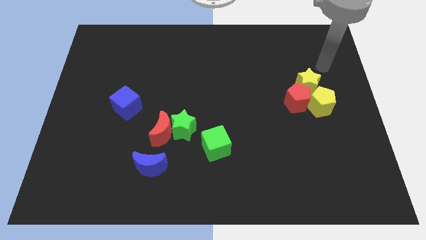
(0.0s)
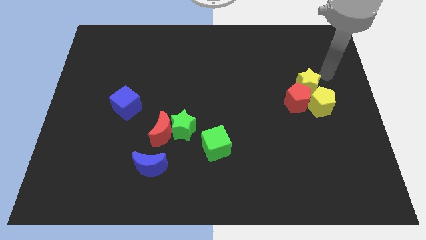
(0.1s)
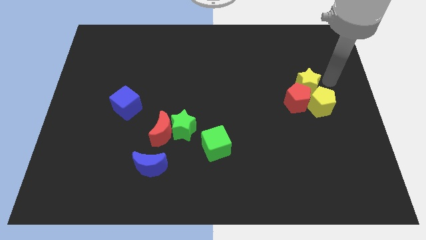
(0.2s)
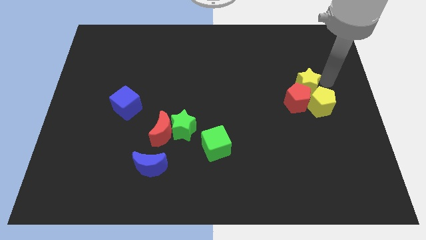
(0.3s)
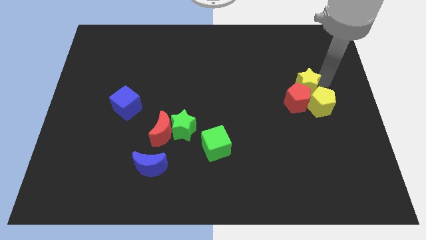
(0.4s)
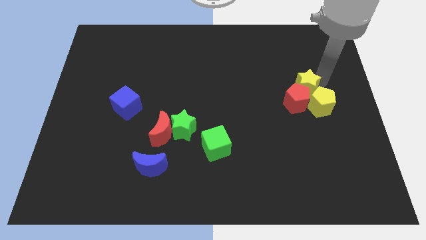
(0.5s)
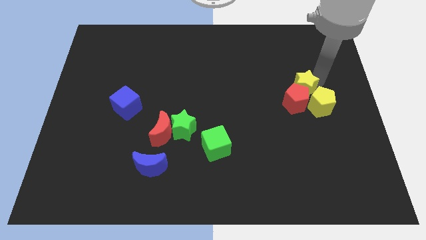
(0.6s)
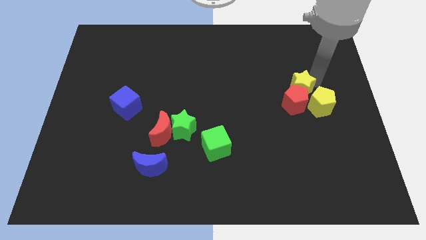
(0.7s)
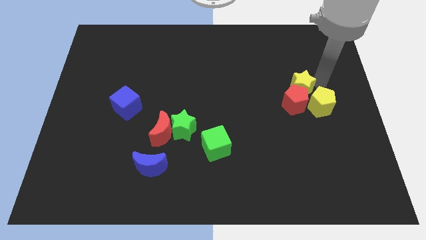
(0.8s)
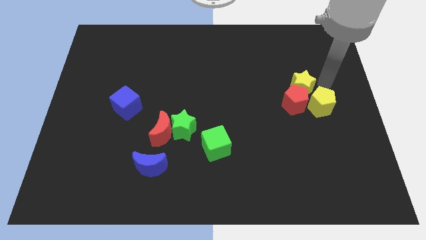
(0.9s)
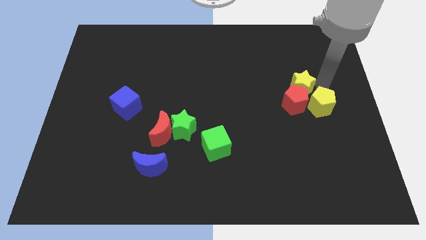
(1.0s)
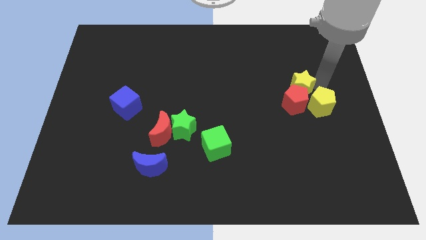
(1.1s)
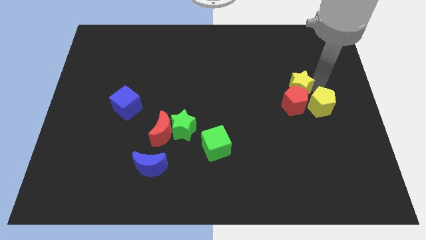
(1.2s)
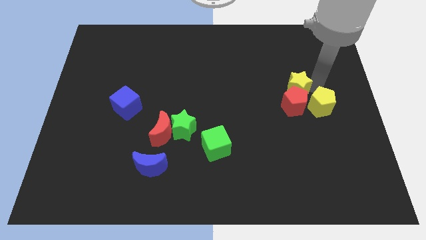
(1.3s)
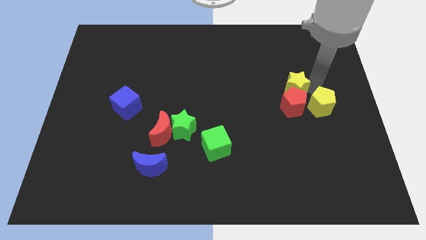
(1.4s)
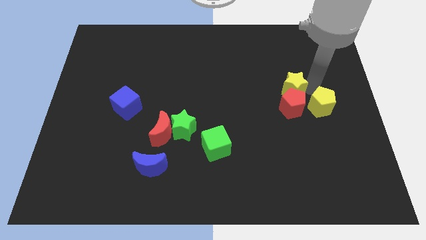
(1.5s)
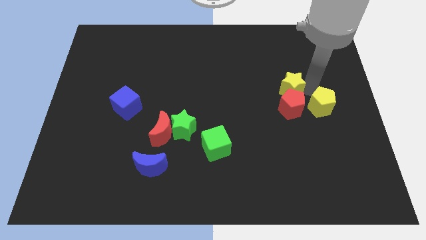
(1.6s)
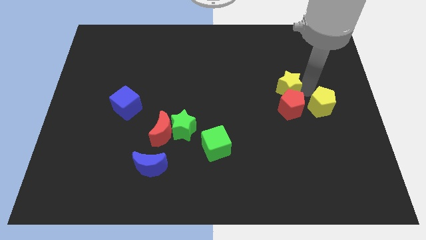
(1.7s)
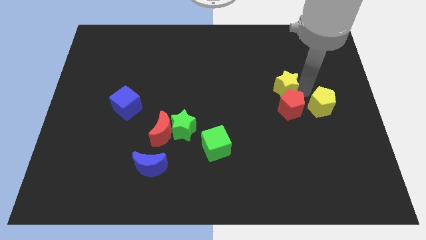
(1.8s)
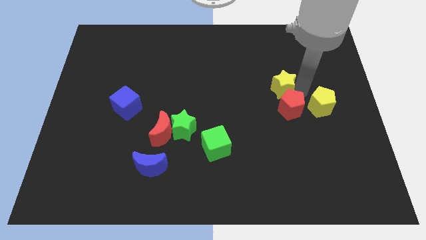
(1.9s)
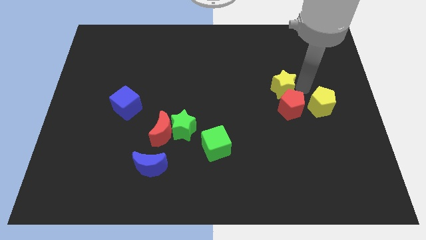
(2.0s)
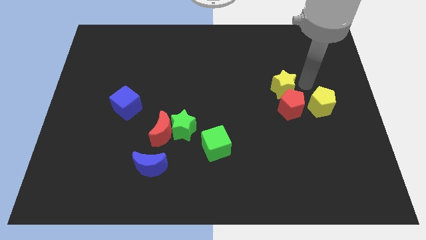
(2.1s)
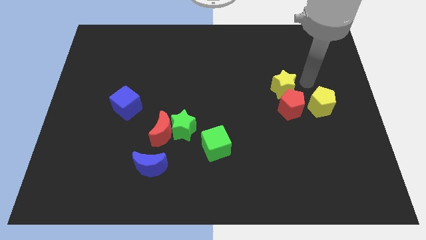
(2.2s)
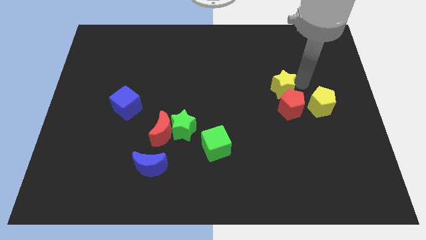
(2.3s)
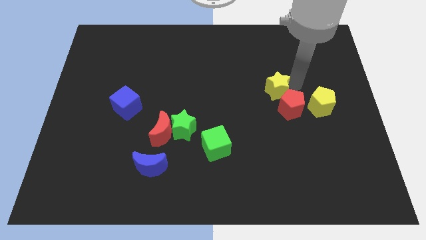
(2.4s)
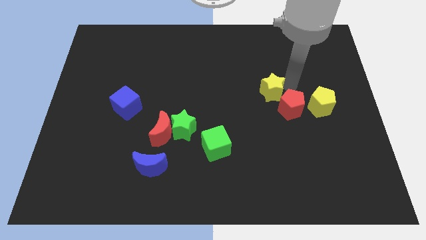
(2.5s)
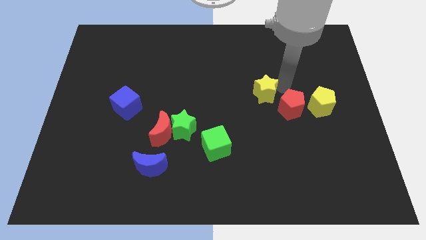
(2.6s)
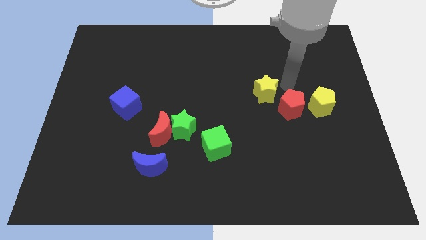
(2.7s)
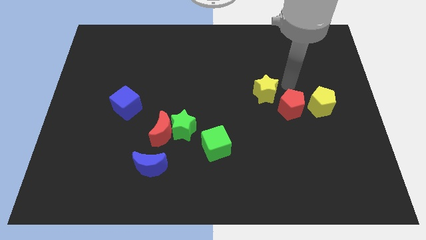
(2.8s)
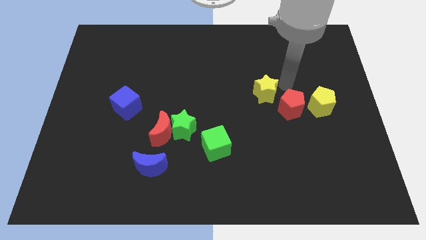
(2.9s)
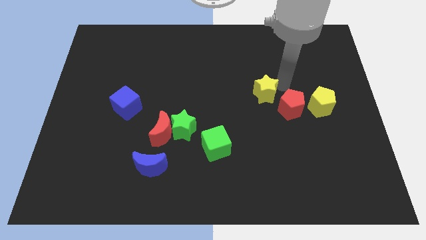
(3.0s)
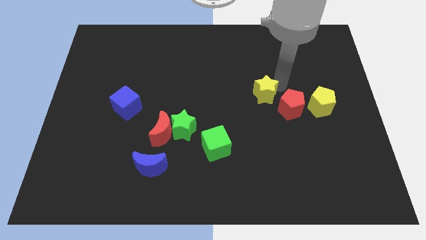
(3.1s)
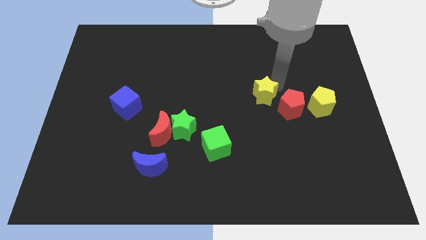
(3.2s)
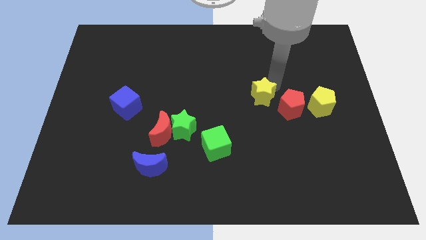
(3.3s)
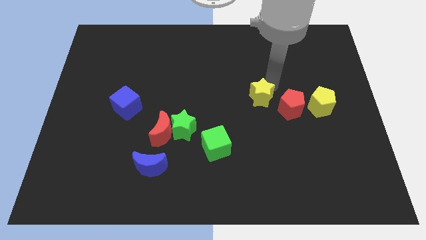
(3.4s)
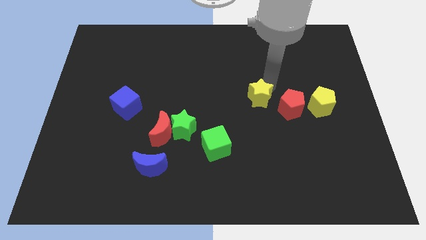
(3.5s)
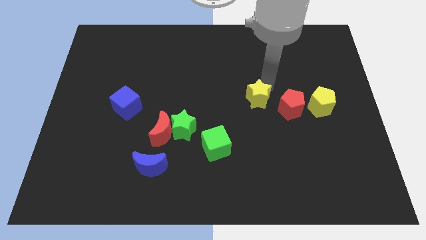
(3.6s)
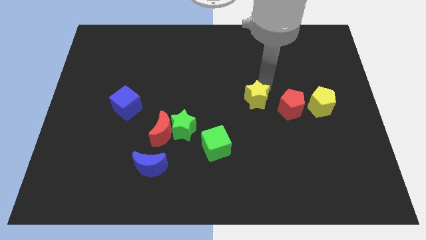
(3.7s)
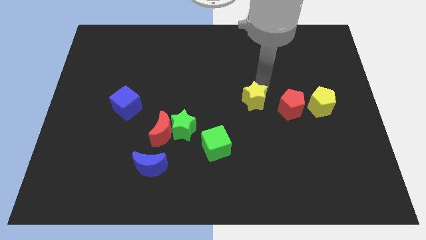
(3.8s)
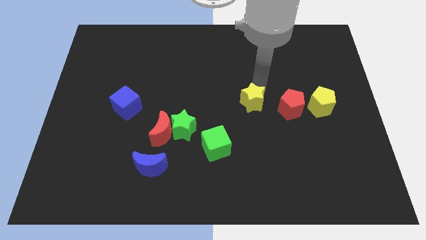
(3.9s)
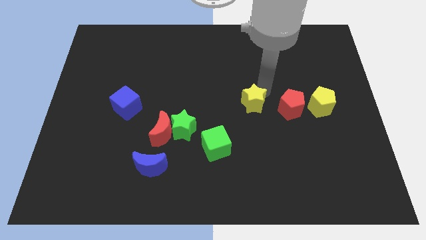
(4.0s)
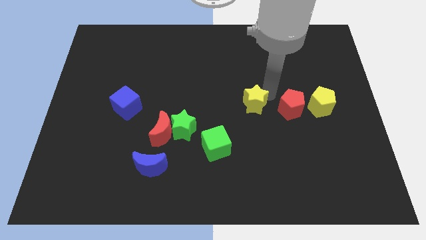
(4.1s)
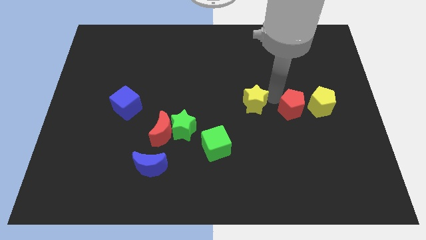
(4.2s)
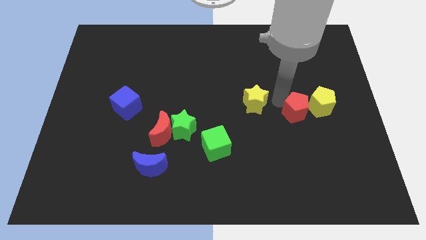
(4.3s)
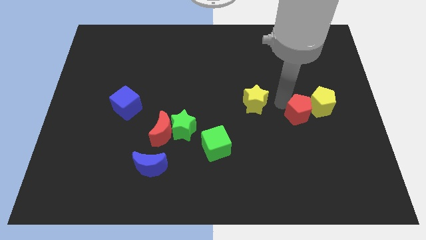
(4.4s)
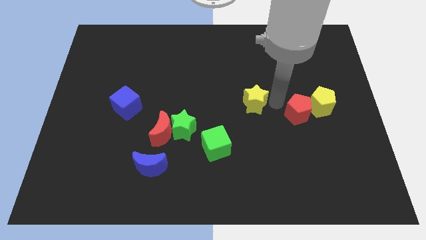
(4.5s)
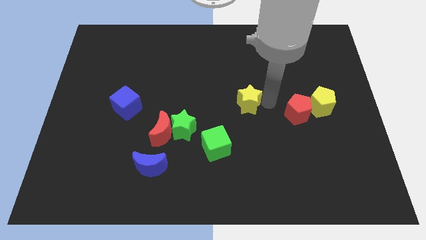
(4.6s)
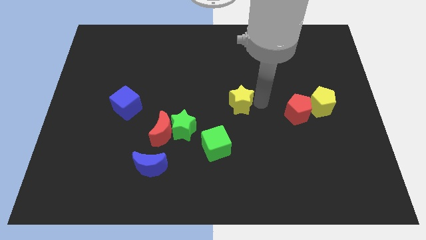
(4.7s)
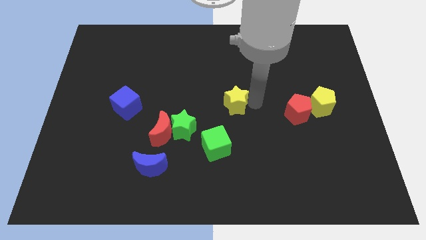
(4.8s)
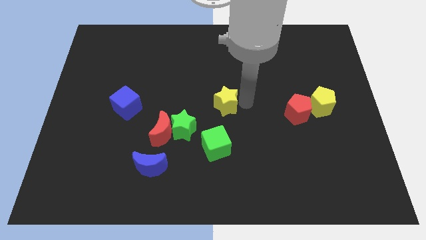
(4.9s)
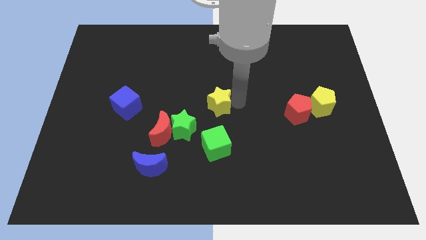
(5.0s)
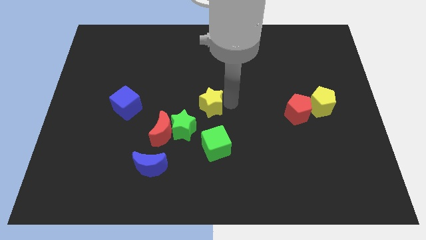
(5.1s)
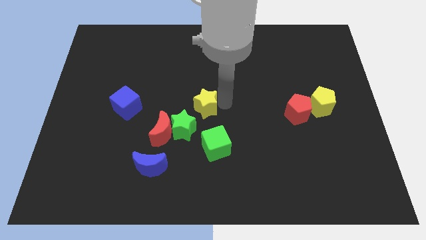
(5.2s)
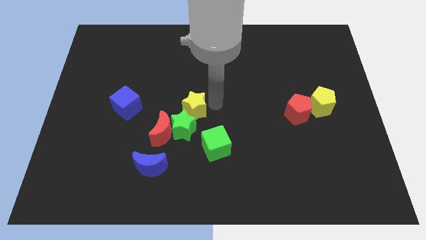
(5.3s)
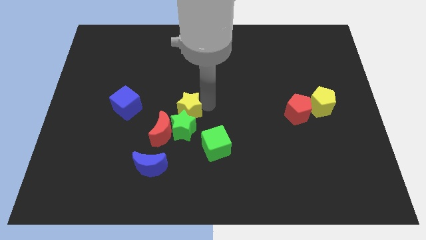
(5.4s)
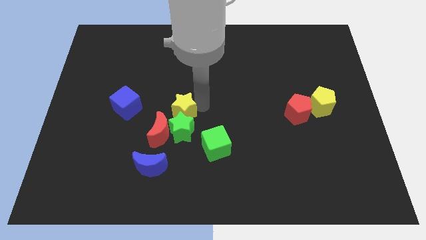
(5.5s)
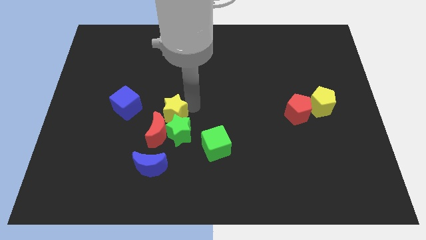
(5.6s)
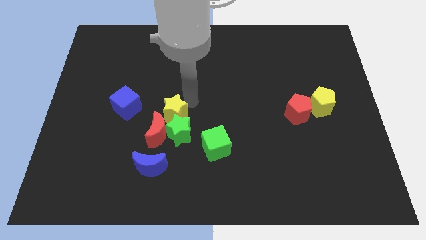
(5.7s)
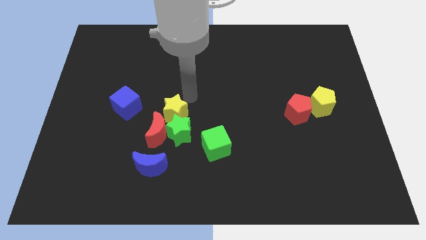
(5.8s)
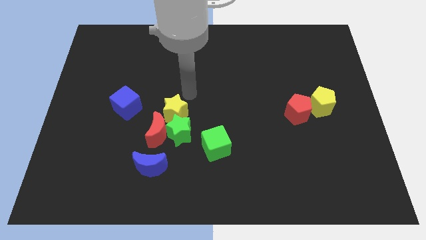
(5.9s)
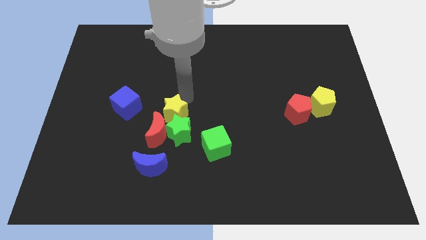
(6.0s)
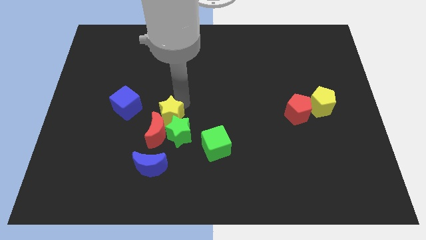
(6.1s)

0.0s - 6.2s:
move the yellow star next to the red moon

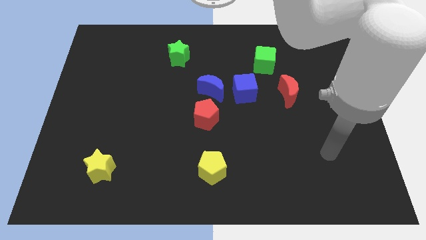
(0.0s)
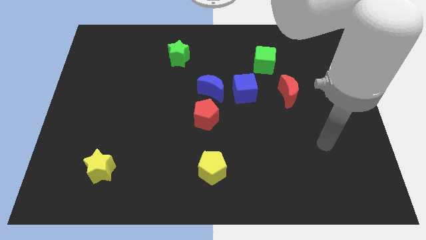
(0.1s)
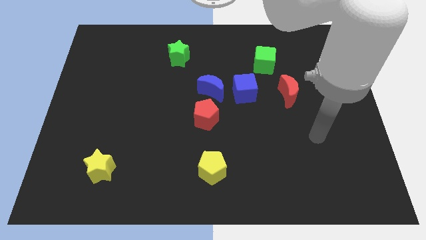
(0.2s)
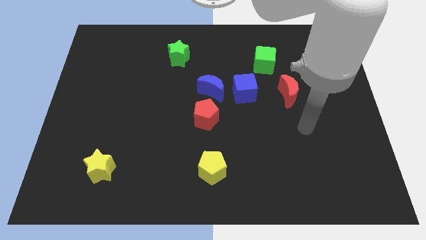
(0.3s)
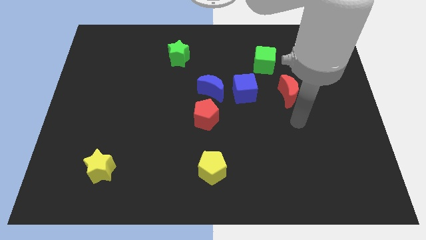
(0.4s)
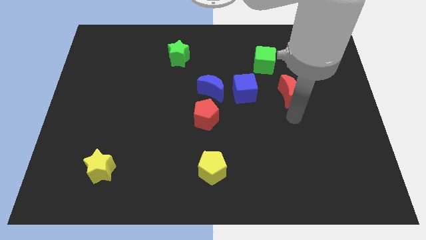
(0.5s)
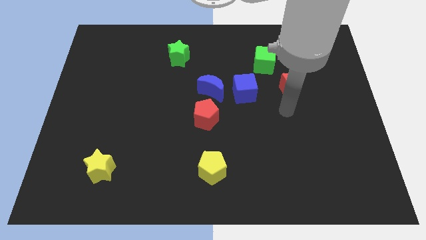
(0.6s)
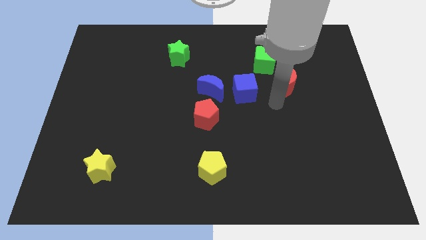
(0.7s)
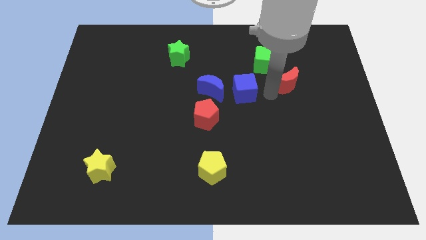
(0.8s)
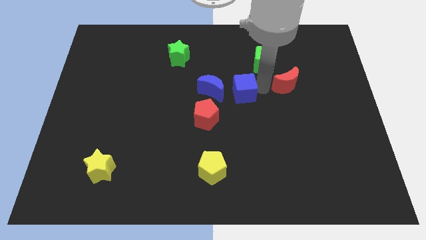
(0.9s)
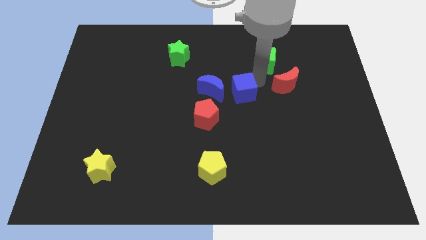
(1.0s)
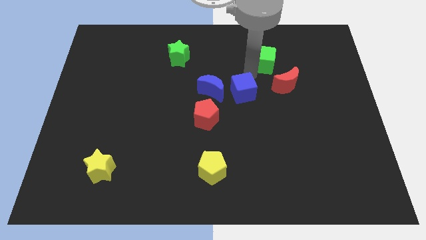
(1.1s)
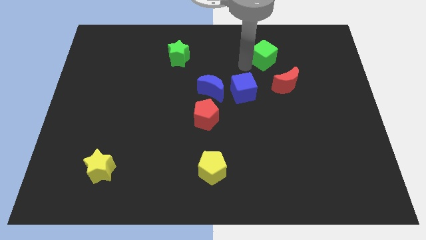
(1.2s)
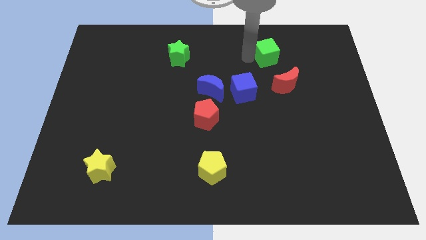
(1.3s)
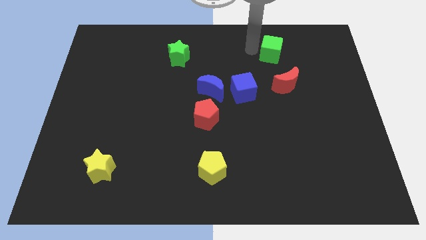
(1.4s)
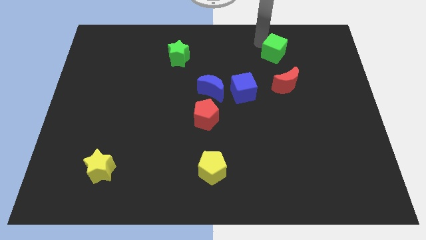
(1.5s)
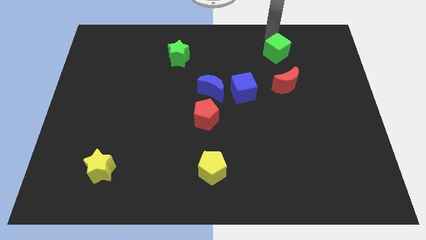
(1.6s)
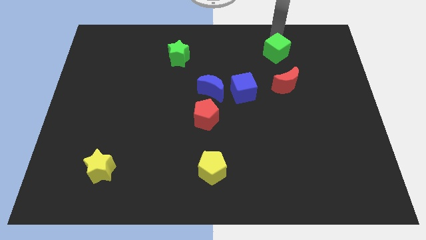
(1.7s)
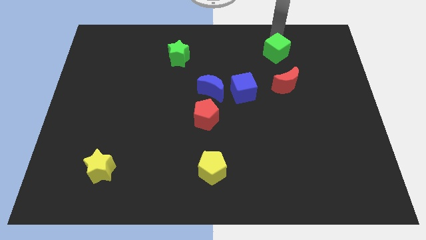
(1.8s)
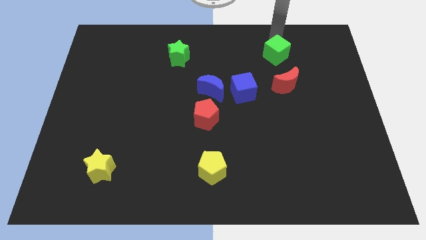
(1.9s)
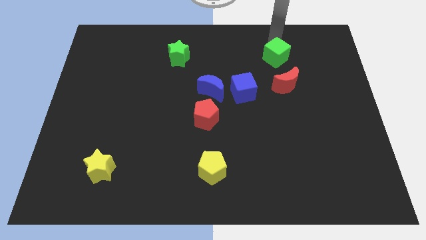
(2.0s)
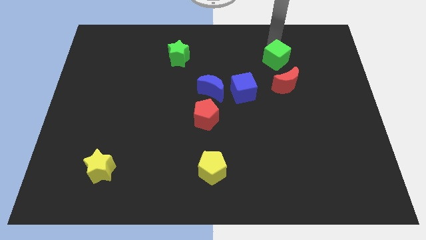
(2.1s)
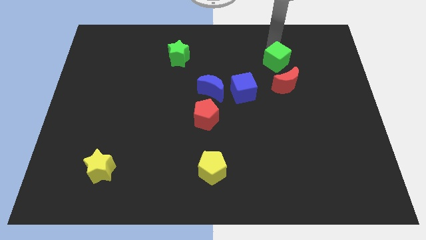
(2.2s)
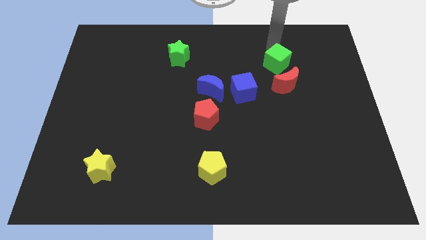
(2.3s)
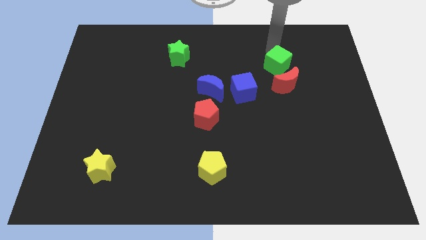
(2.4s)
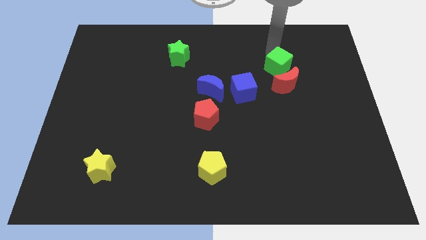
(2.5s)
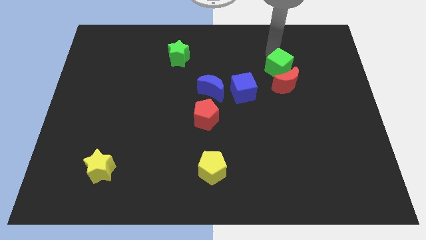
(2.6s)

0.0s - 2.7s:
push the green cube close to the red moon
